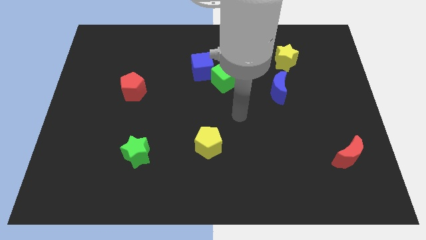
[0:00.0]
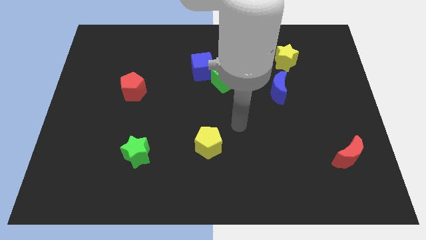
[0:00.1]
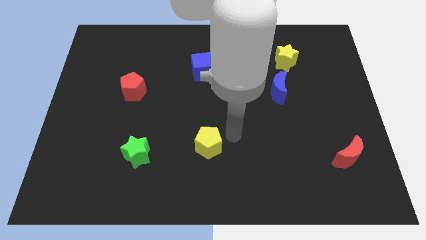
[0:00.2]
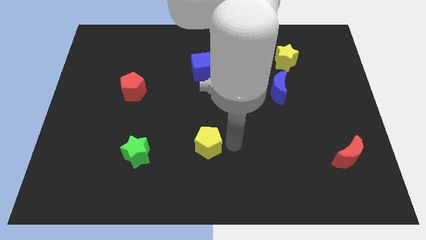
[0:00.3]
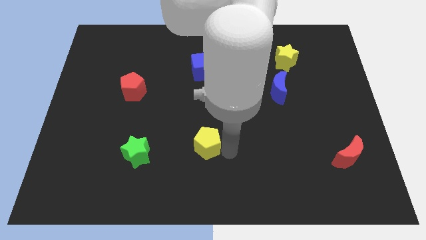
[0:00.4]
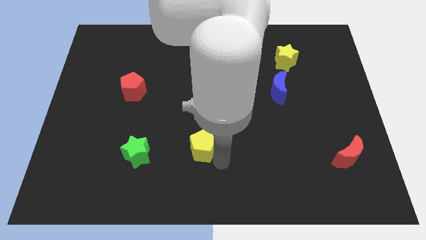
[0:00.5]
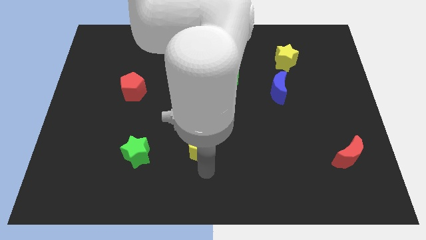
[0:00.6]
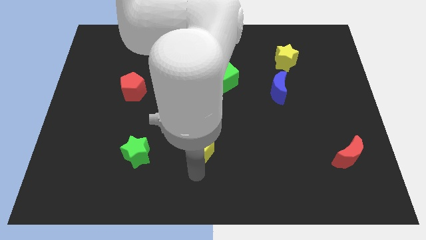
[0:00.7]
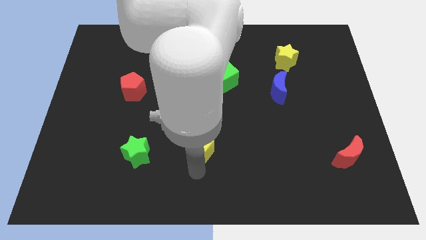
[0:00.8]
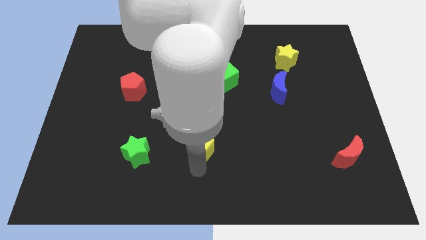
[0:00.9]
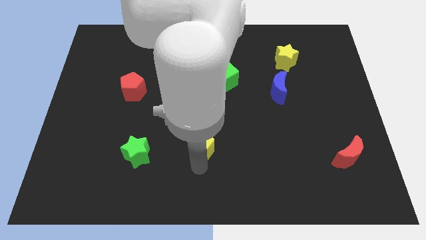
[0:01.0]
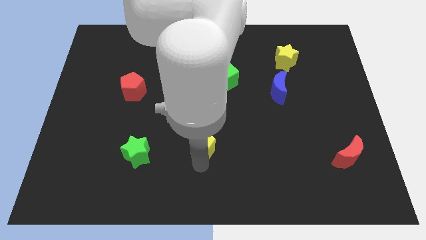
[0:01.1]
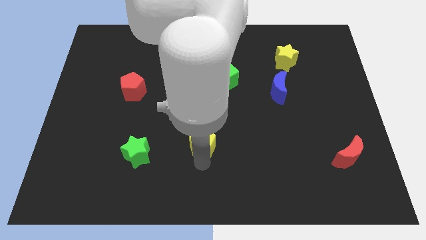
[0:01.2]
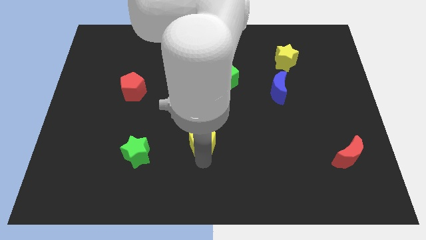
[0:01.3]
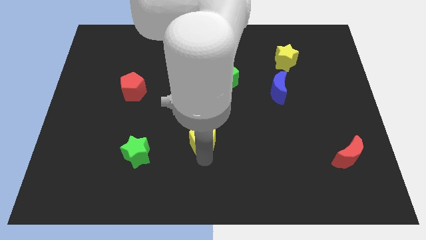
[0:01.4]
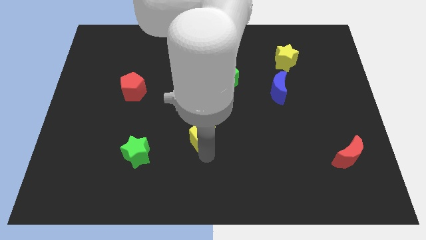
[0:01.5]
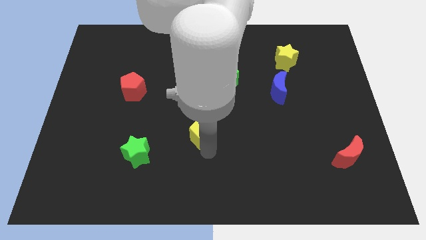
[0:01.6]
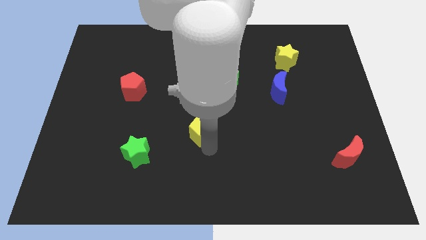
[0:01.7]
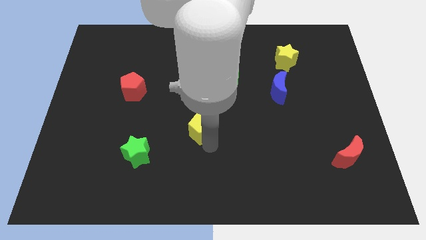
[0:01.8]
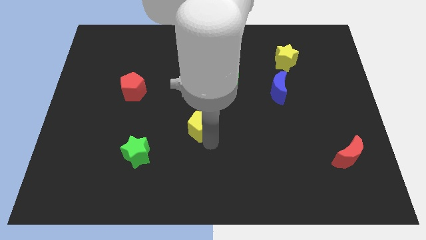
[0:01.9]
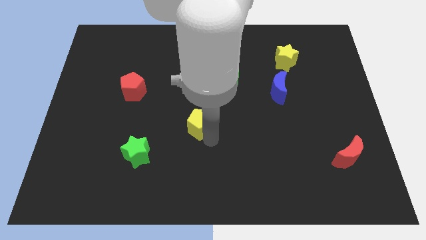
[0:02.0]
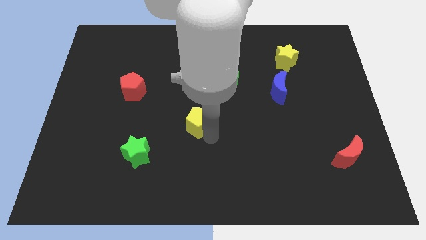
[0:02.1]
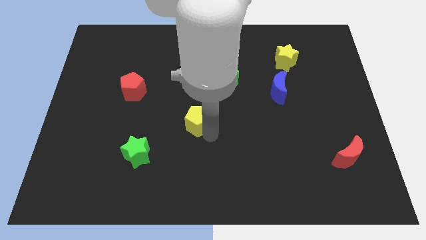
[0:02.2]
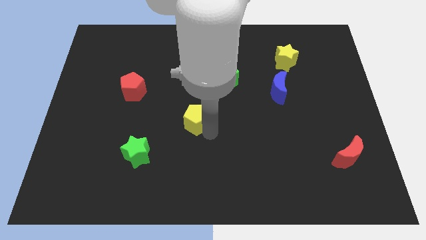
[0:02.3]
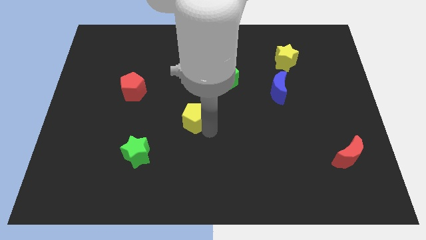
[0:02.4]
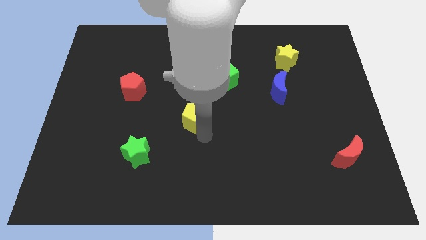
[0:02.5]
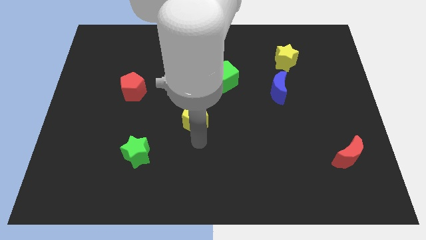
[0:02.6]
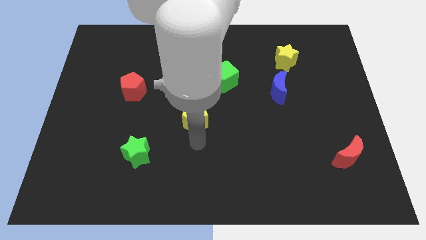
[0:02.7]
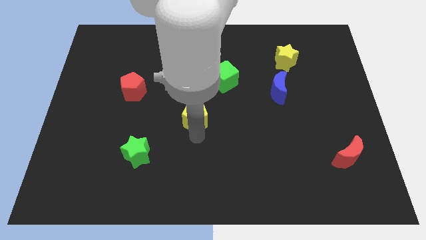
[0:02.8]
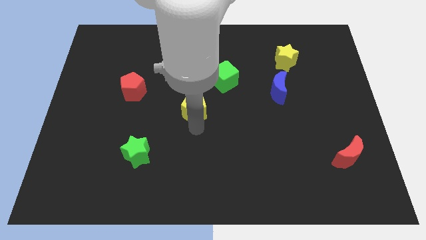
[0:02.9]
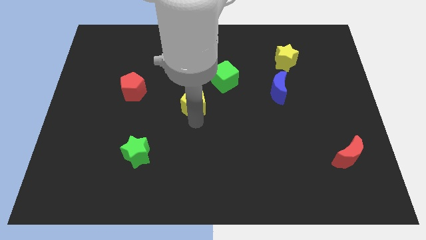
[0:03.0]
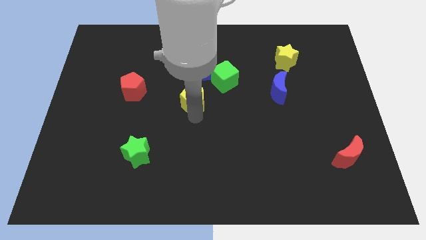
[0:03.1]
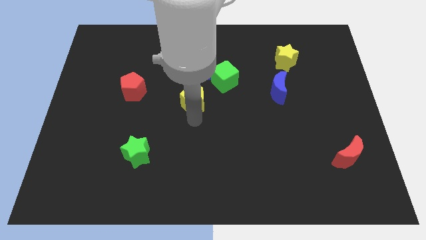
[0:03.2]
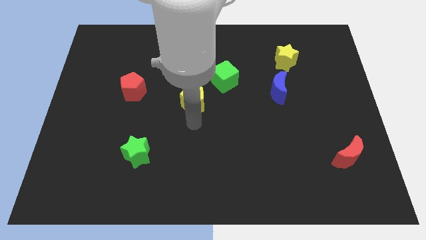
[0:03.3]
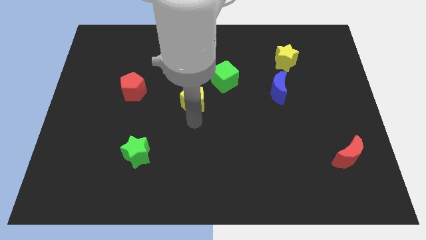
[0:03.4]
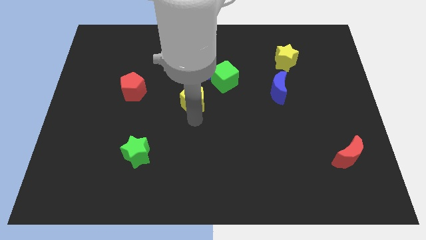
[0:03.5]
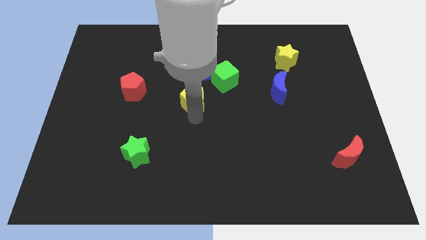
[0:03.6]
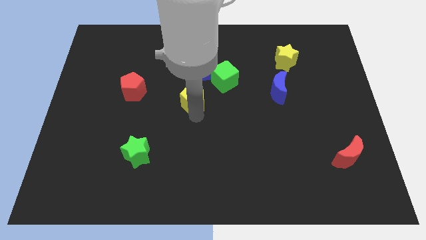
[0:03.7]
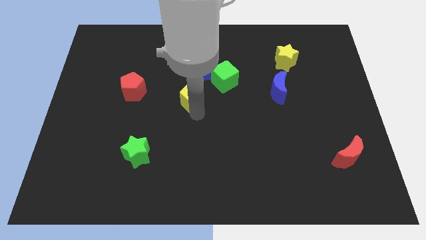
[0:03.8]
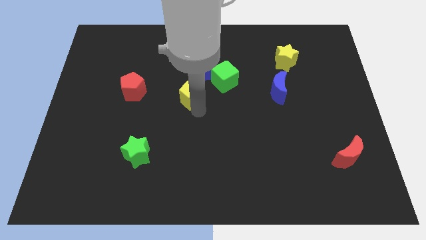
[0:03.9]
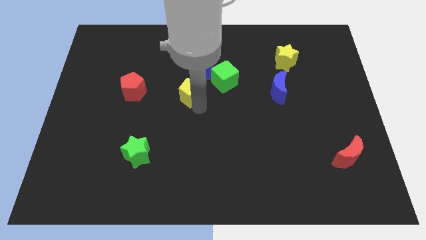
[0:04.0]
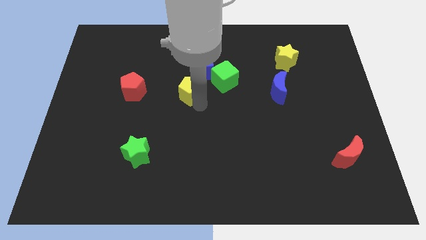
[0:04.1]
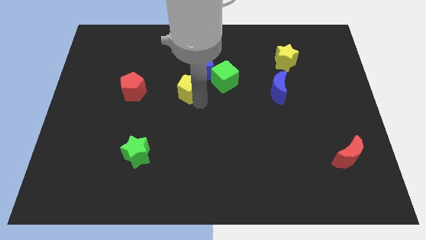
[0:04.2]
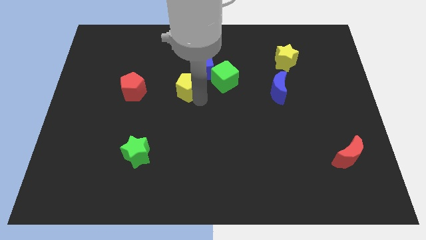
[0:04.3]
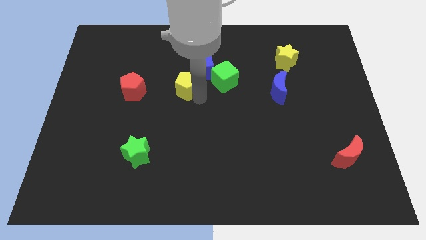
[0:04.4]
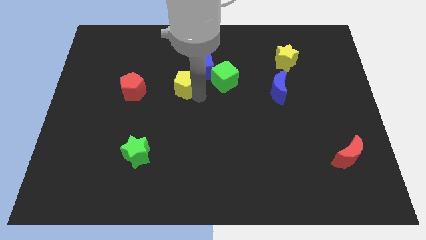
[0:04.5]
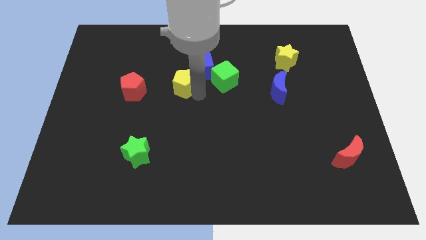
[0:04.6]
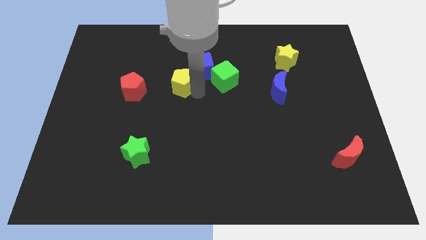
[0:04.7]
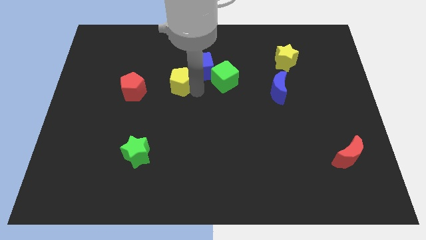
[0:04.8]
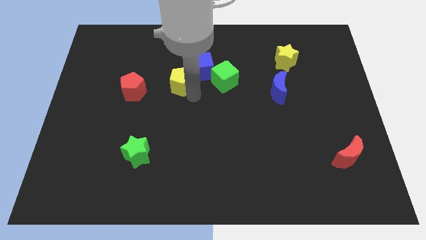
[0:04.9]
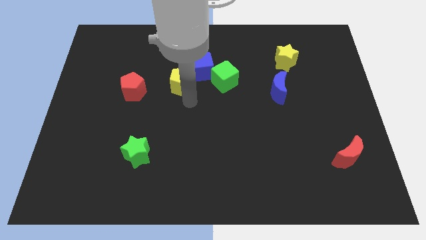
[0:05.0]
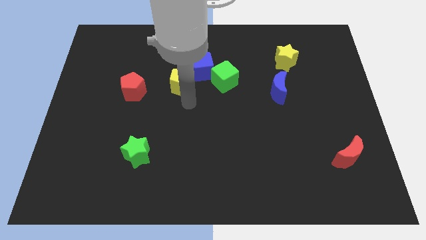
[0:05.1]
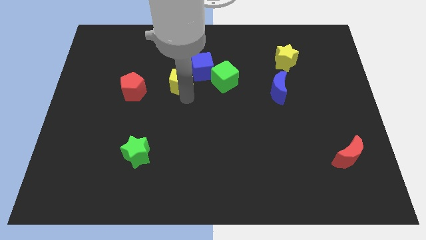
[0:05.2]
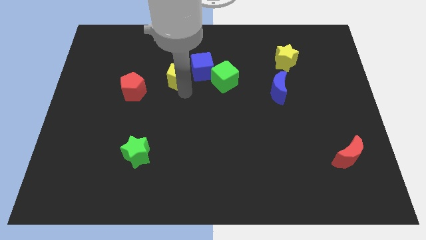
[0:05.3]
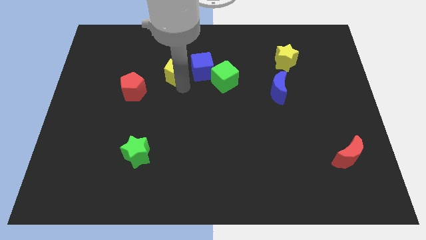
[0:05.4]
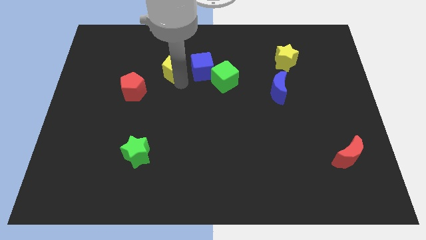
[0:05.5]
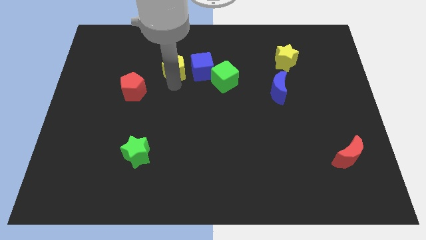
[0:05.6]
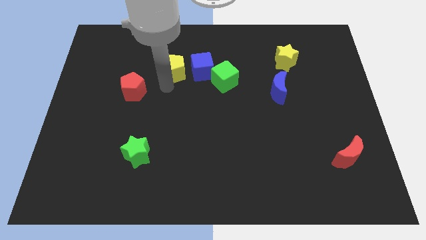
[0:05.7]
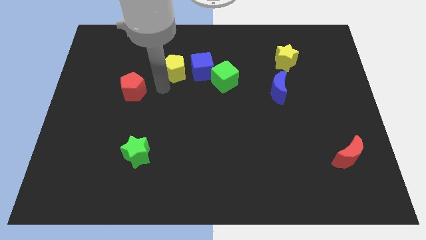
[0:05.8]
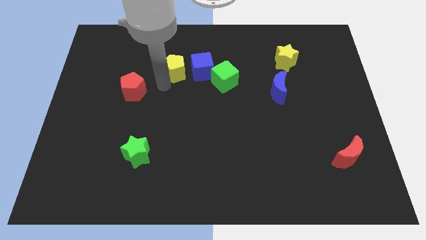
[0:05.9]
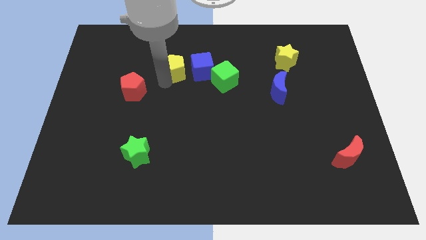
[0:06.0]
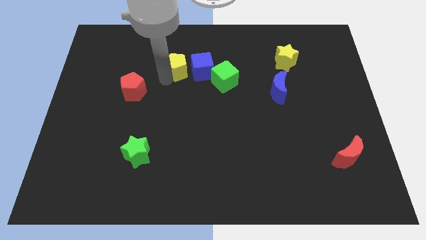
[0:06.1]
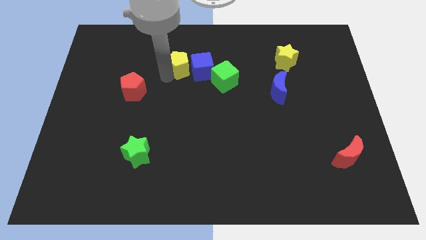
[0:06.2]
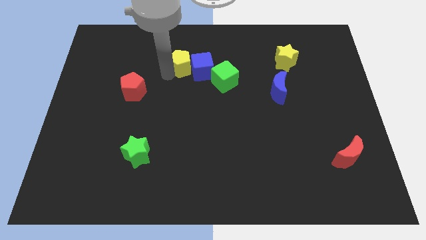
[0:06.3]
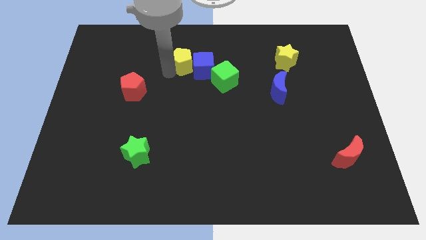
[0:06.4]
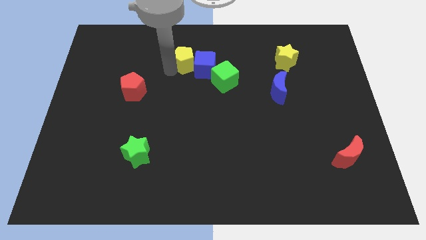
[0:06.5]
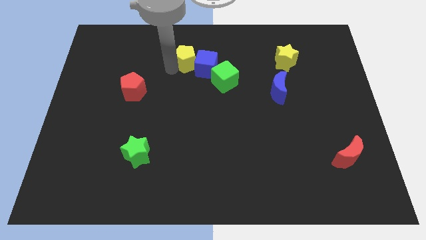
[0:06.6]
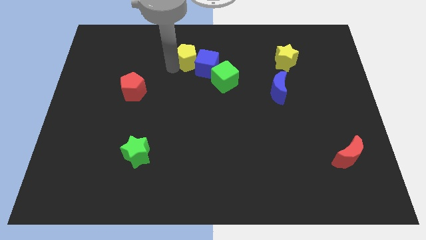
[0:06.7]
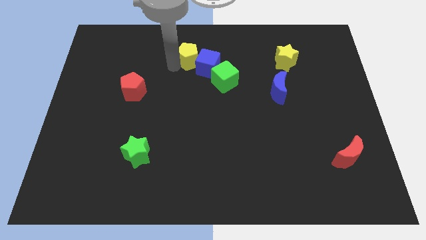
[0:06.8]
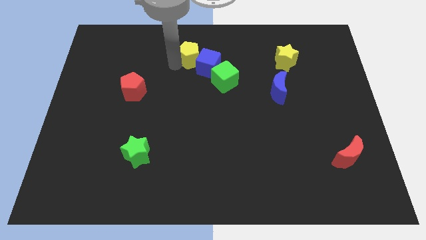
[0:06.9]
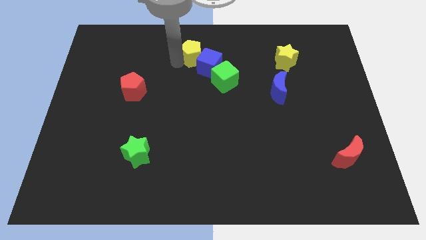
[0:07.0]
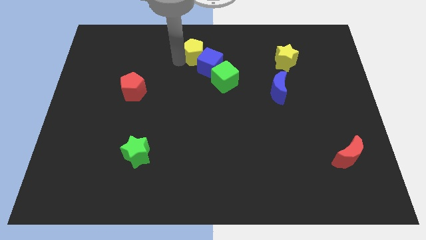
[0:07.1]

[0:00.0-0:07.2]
push the yellow pentagon to the towards your base
